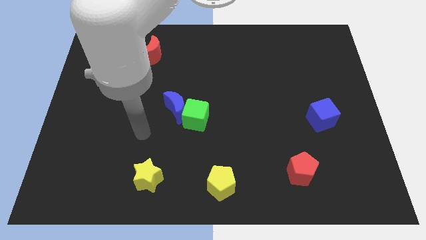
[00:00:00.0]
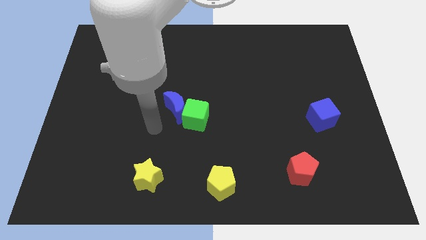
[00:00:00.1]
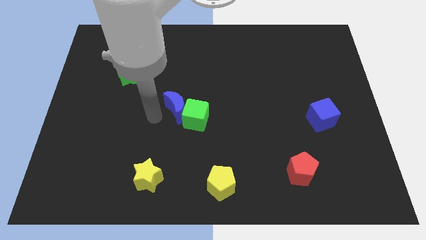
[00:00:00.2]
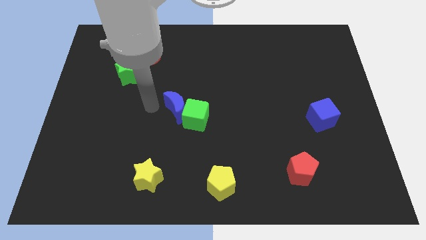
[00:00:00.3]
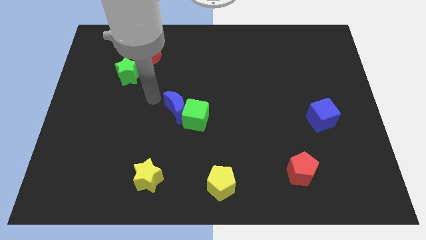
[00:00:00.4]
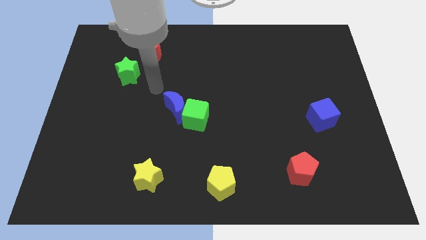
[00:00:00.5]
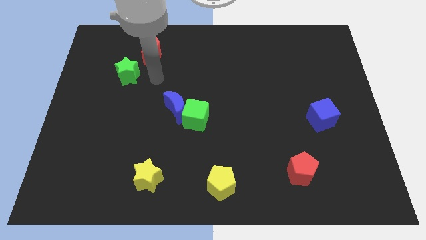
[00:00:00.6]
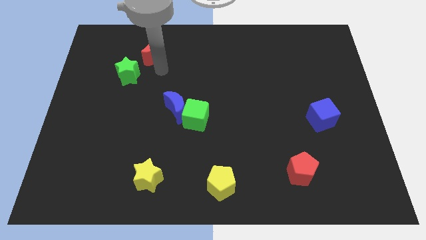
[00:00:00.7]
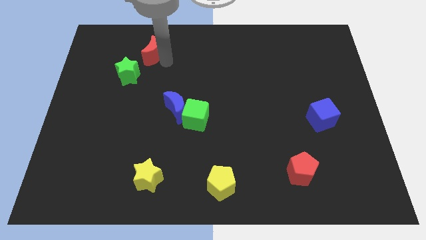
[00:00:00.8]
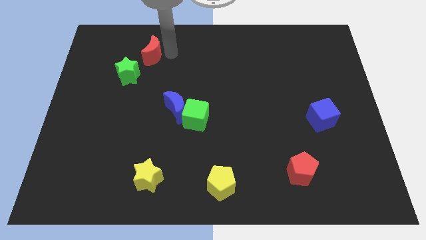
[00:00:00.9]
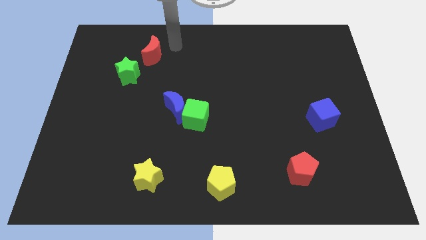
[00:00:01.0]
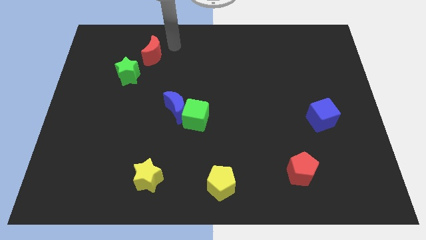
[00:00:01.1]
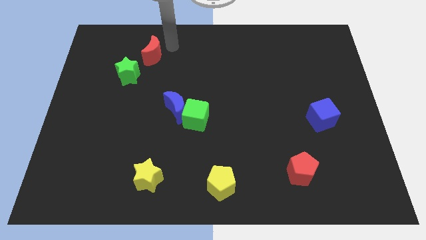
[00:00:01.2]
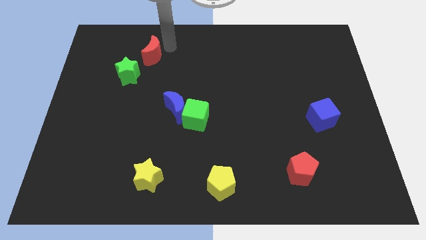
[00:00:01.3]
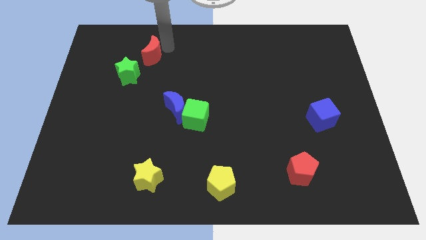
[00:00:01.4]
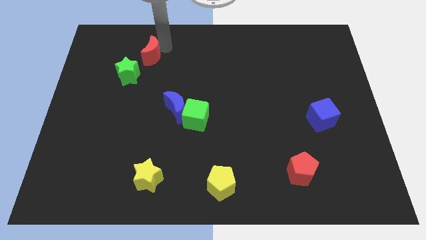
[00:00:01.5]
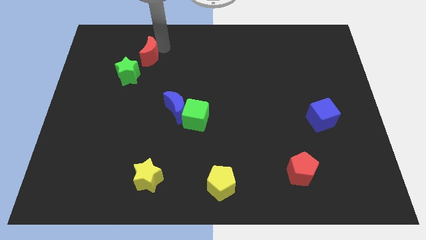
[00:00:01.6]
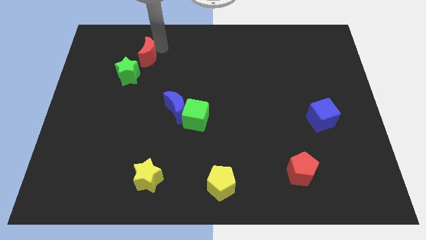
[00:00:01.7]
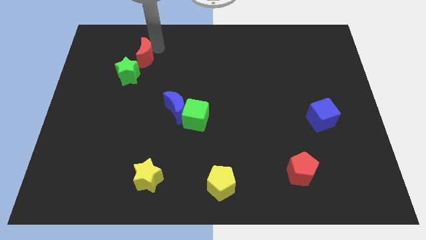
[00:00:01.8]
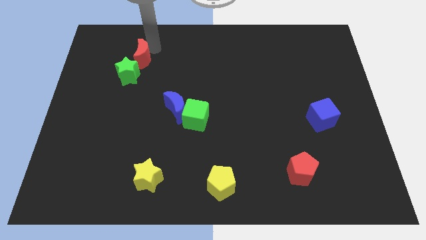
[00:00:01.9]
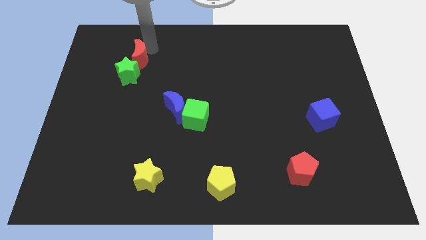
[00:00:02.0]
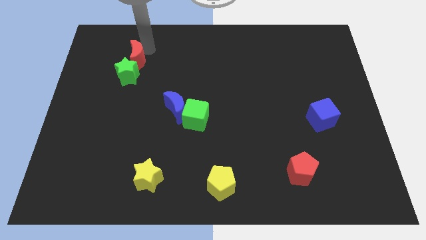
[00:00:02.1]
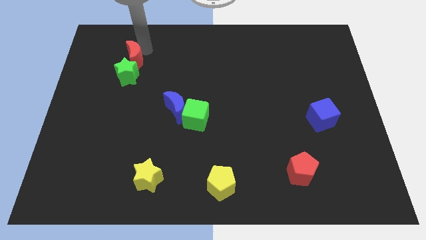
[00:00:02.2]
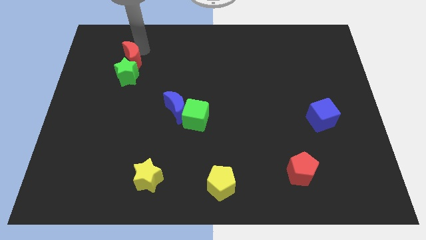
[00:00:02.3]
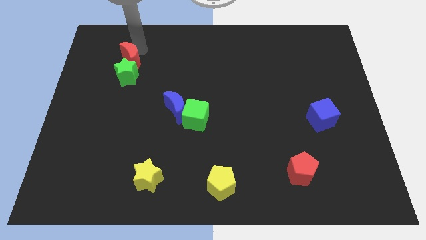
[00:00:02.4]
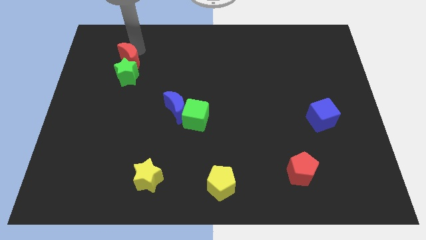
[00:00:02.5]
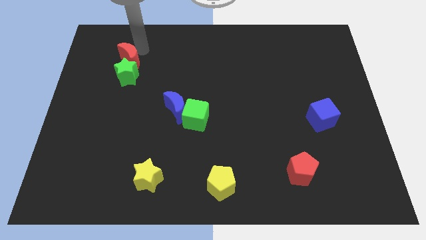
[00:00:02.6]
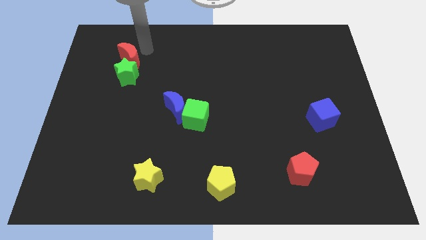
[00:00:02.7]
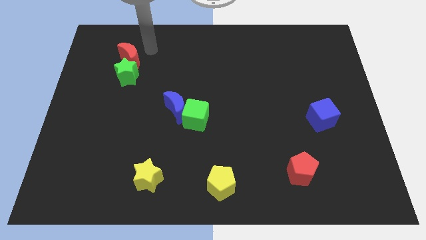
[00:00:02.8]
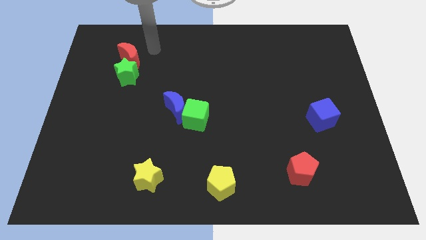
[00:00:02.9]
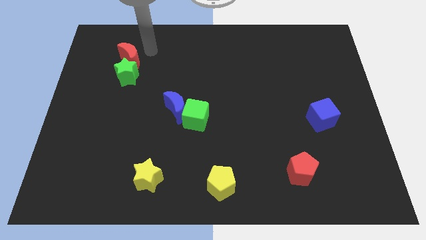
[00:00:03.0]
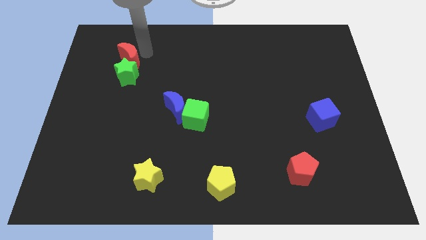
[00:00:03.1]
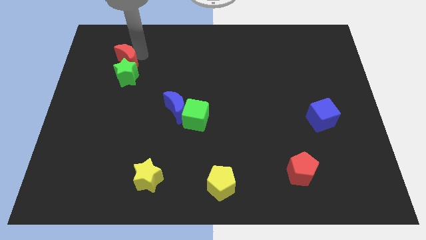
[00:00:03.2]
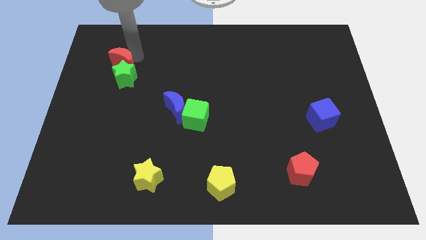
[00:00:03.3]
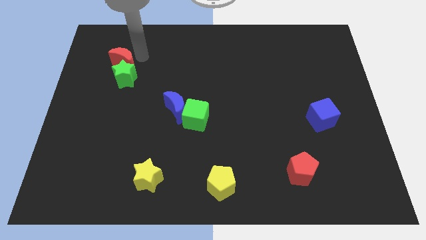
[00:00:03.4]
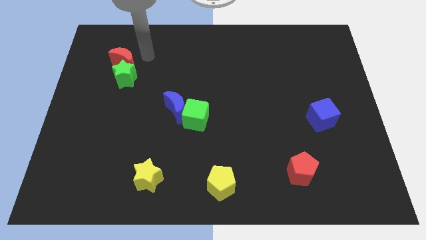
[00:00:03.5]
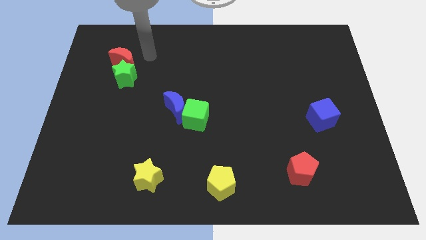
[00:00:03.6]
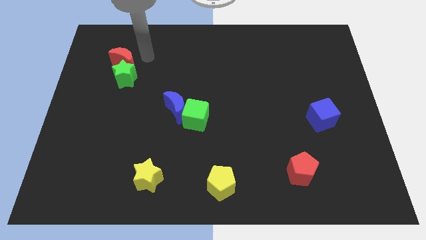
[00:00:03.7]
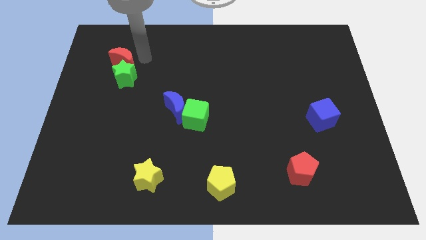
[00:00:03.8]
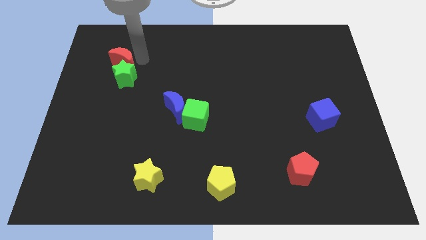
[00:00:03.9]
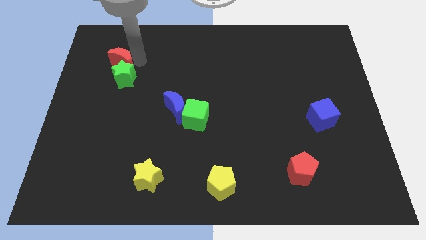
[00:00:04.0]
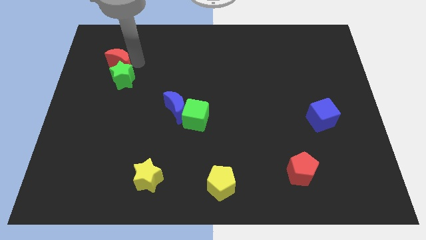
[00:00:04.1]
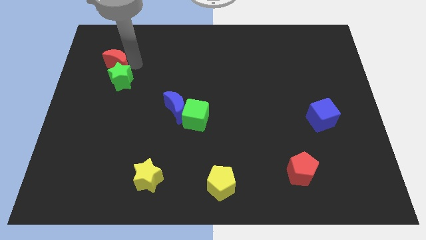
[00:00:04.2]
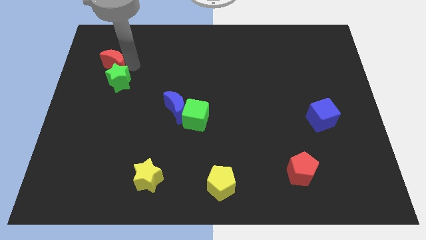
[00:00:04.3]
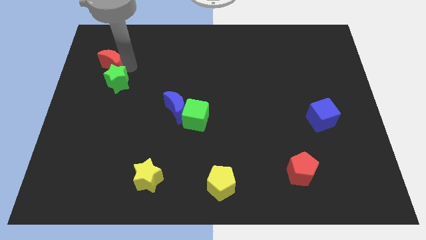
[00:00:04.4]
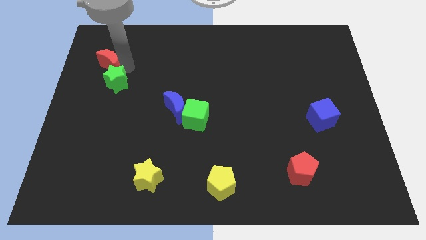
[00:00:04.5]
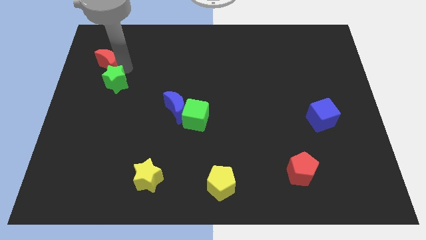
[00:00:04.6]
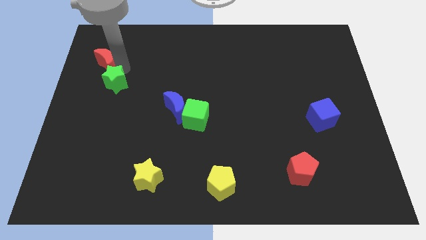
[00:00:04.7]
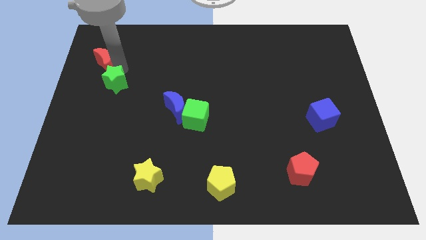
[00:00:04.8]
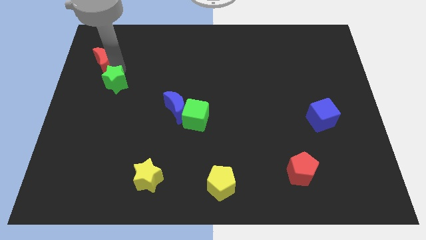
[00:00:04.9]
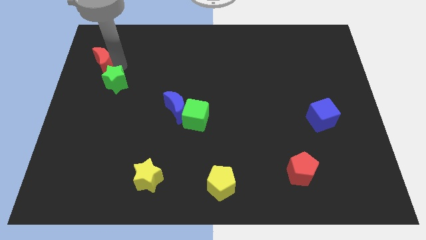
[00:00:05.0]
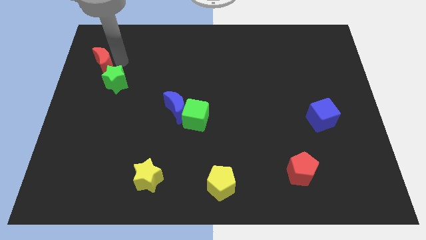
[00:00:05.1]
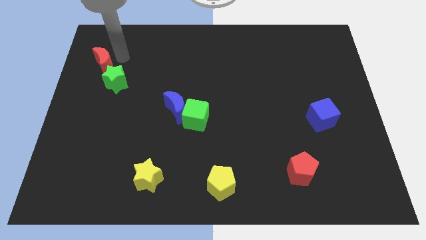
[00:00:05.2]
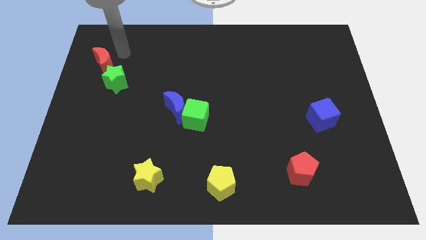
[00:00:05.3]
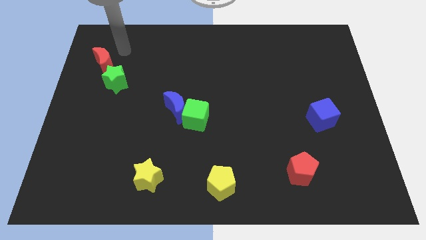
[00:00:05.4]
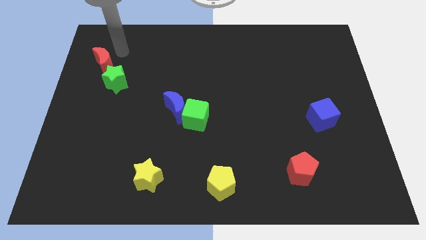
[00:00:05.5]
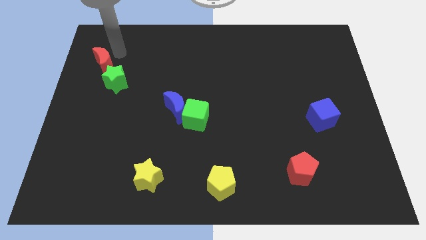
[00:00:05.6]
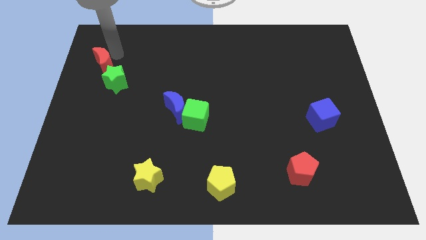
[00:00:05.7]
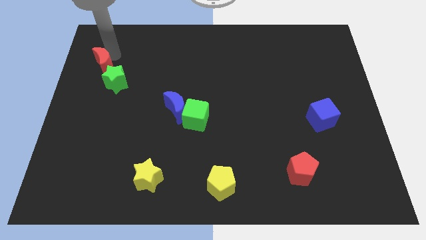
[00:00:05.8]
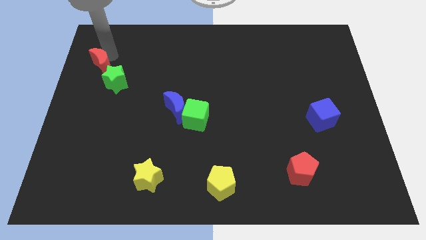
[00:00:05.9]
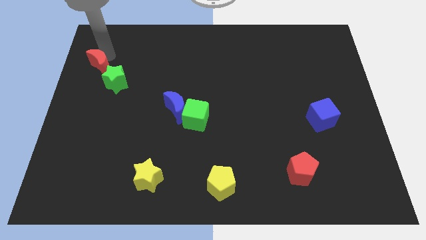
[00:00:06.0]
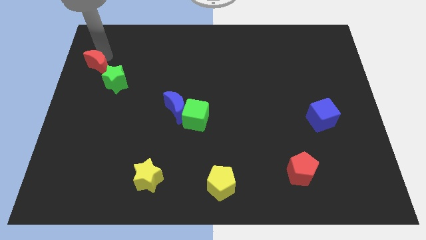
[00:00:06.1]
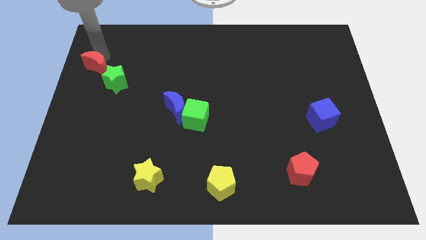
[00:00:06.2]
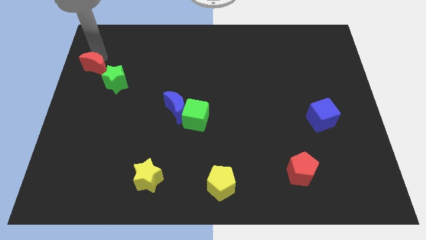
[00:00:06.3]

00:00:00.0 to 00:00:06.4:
slide the red moon to the left side of the board

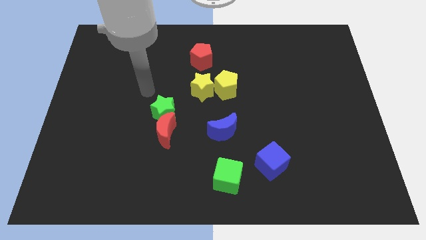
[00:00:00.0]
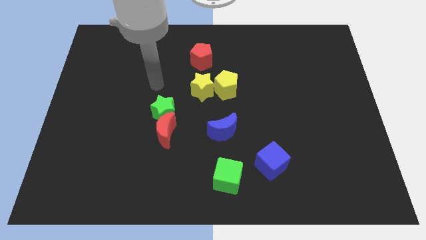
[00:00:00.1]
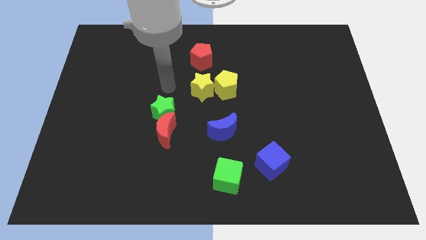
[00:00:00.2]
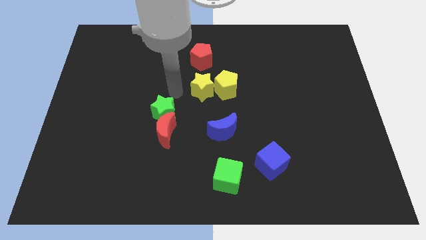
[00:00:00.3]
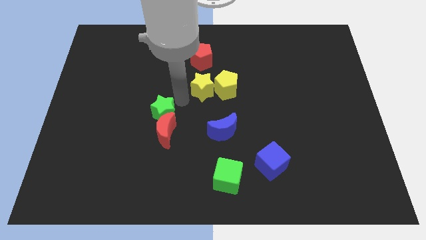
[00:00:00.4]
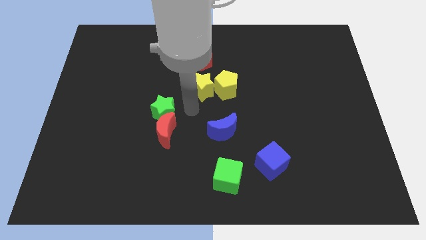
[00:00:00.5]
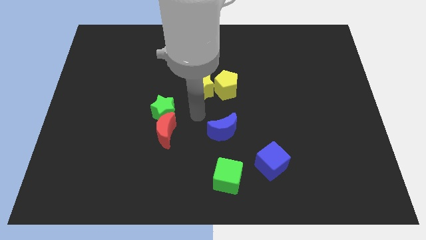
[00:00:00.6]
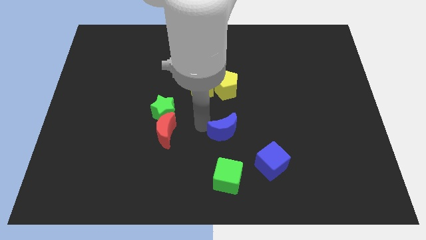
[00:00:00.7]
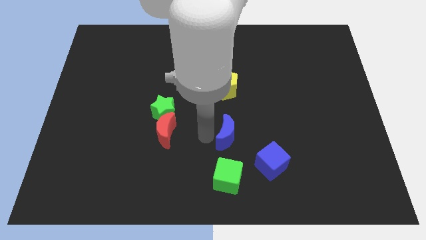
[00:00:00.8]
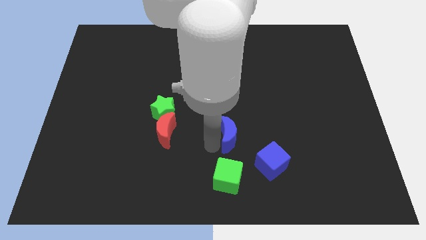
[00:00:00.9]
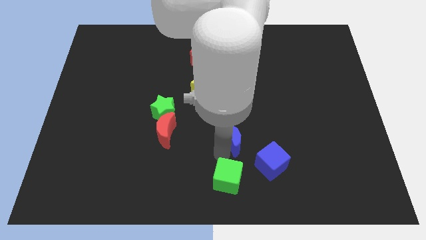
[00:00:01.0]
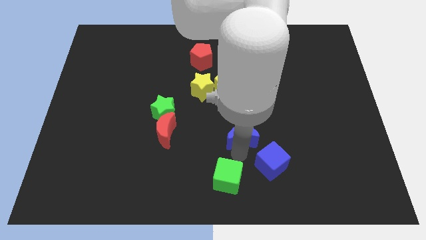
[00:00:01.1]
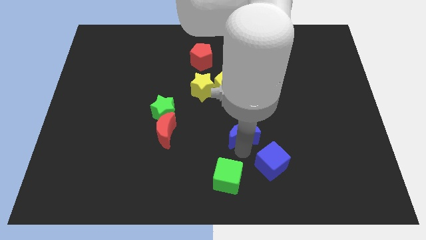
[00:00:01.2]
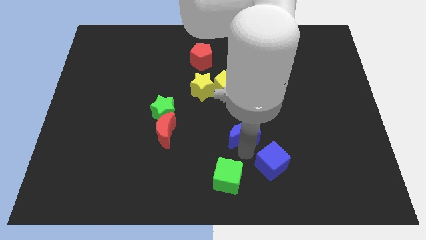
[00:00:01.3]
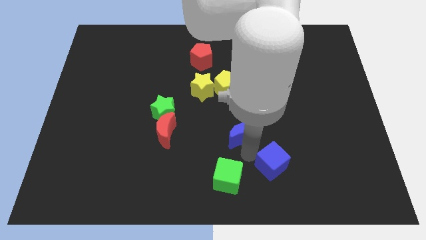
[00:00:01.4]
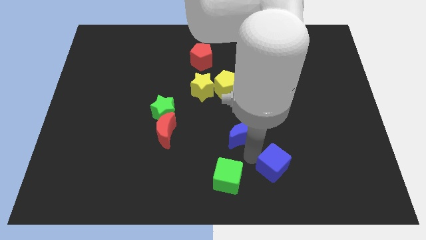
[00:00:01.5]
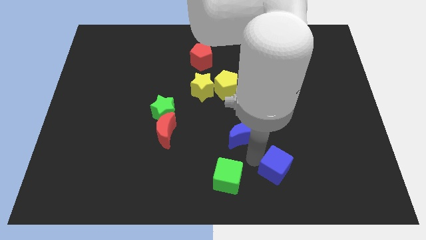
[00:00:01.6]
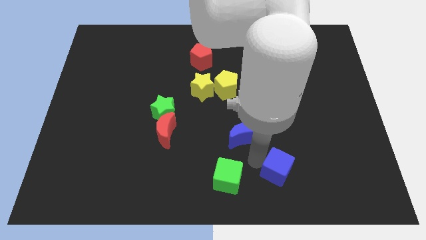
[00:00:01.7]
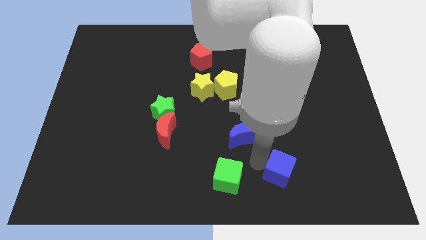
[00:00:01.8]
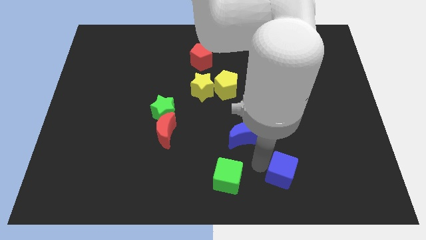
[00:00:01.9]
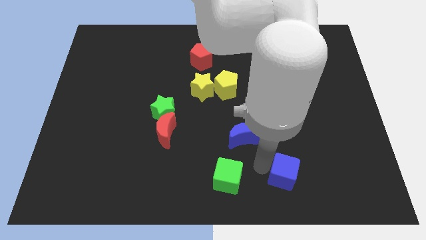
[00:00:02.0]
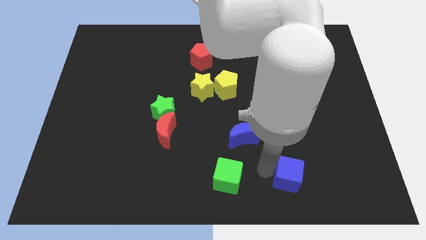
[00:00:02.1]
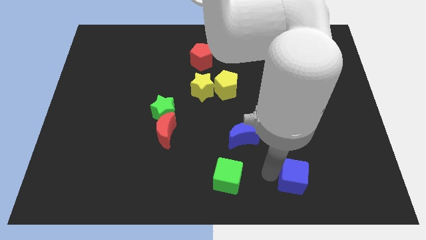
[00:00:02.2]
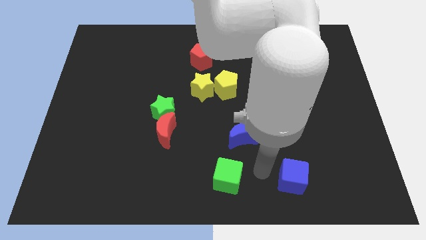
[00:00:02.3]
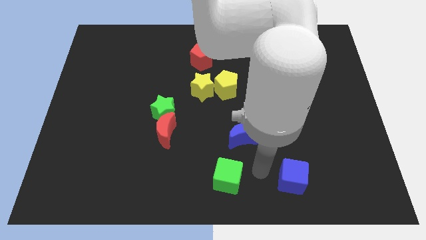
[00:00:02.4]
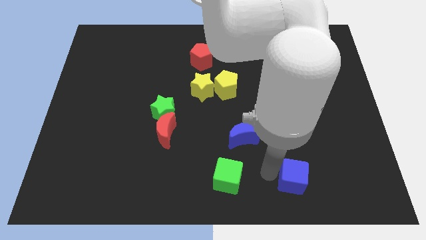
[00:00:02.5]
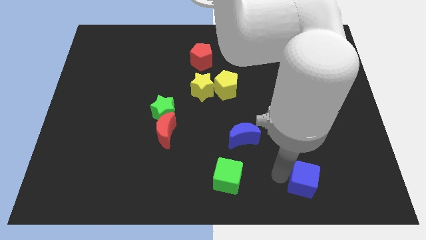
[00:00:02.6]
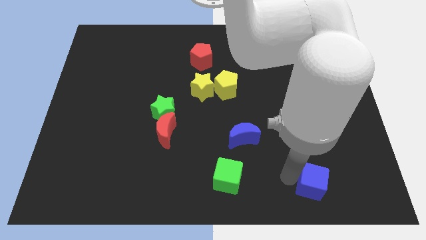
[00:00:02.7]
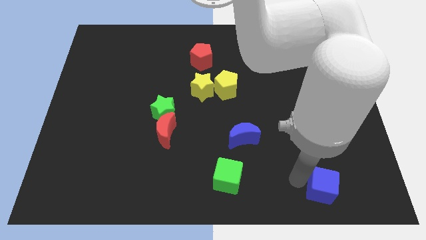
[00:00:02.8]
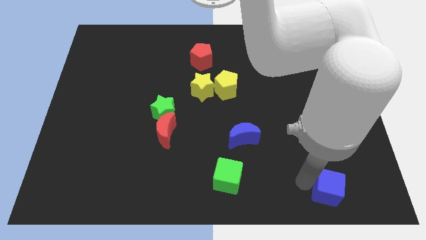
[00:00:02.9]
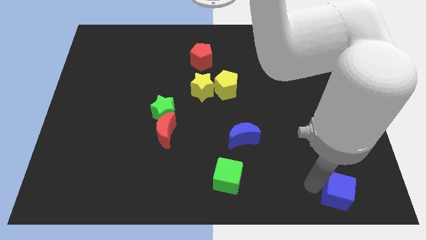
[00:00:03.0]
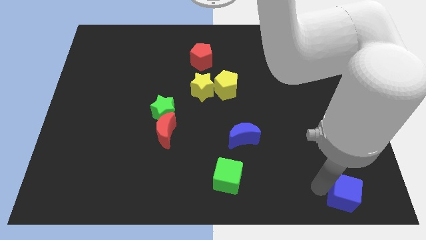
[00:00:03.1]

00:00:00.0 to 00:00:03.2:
slide the blue cube to the bottom right corner
